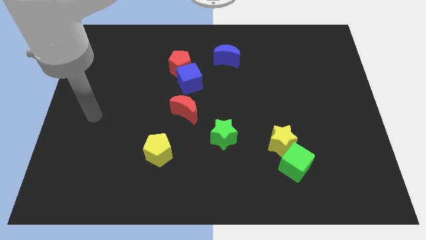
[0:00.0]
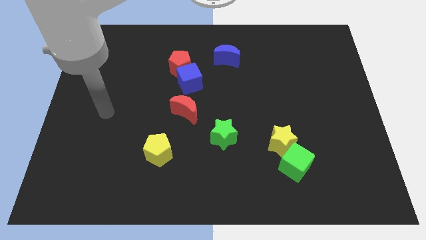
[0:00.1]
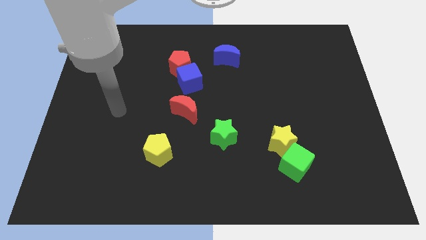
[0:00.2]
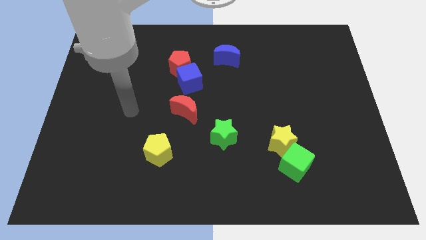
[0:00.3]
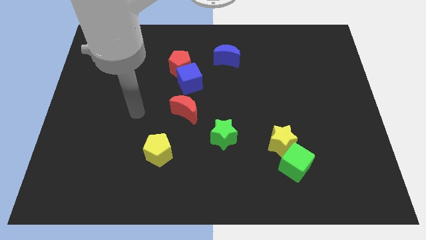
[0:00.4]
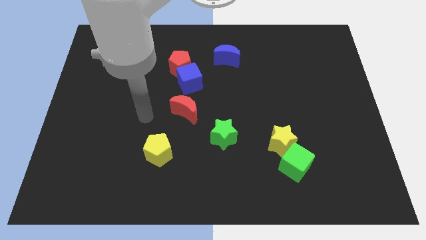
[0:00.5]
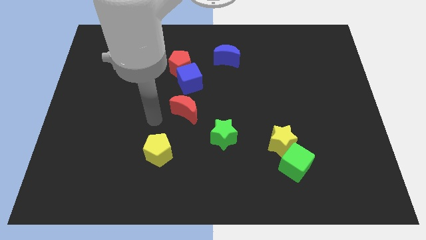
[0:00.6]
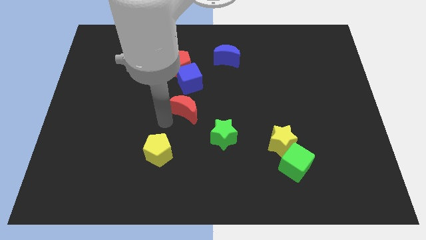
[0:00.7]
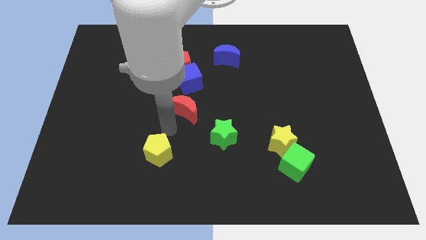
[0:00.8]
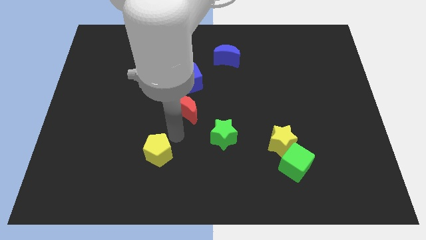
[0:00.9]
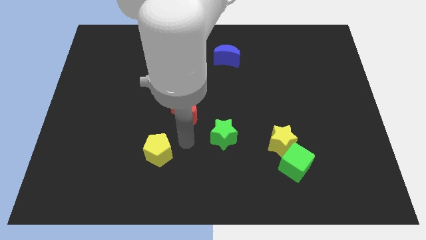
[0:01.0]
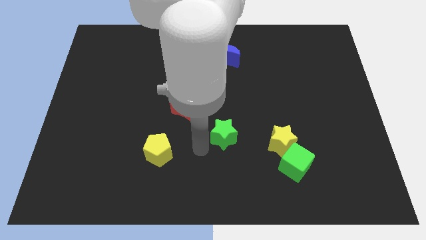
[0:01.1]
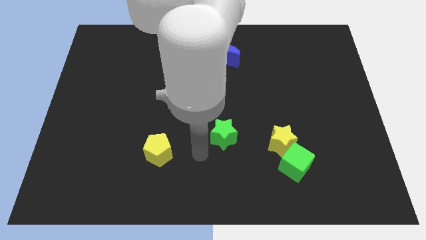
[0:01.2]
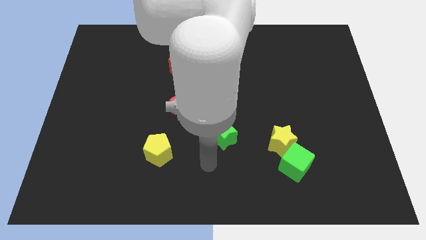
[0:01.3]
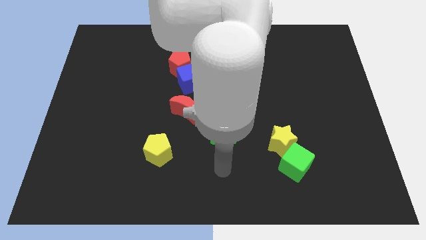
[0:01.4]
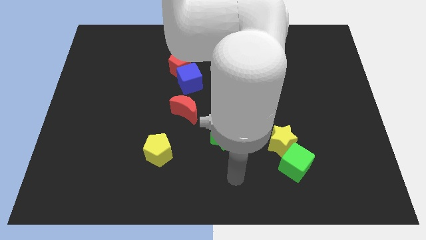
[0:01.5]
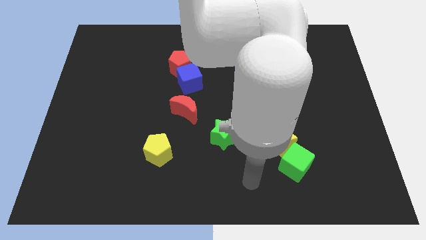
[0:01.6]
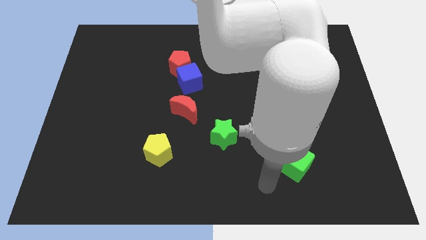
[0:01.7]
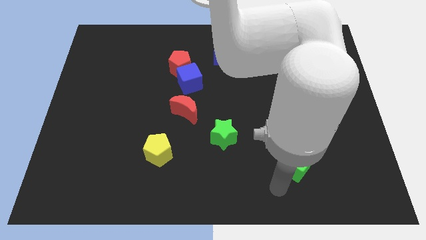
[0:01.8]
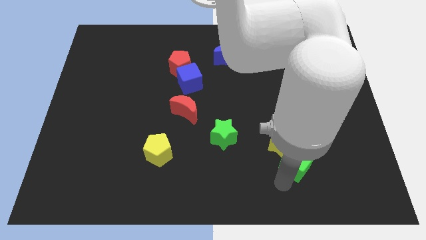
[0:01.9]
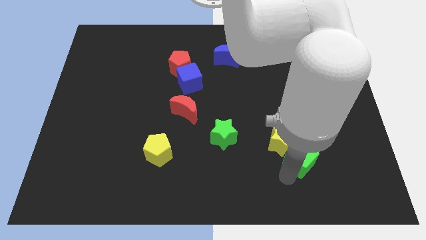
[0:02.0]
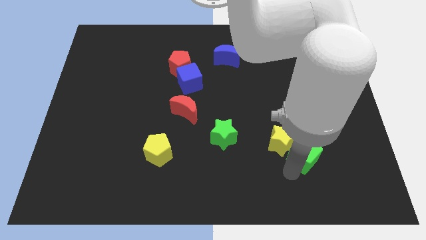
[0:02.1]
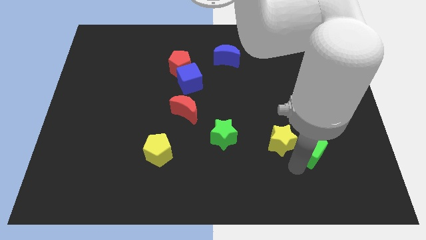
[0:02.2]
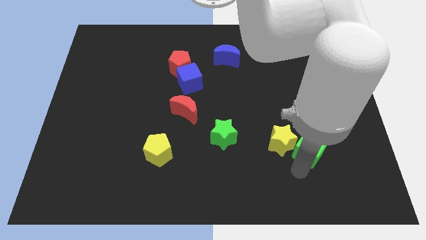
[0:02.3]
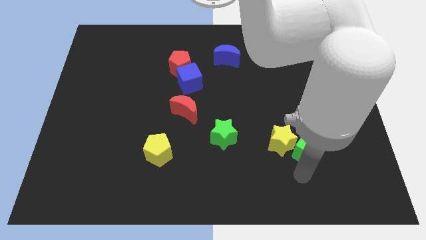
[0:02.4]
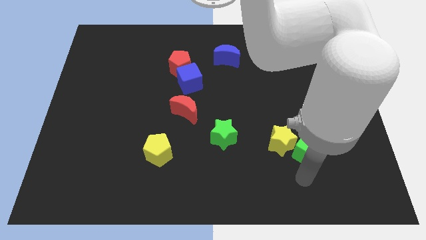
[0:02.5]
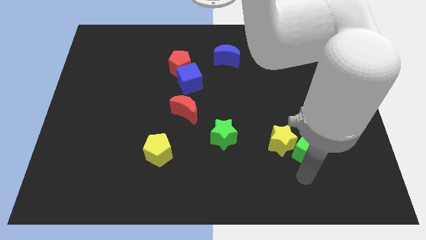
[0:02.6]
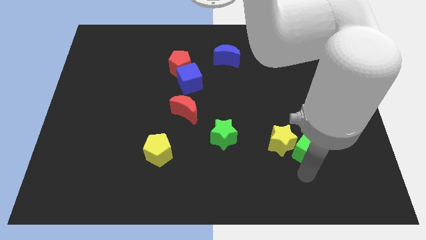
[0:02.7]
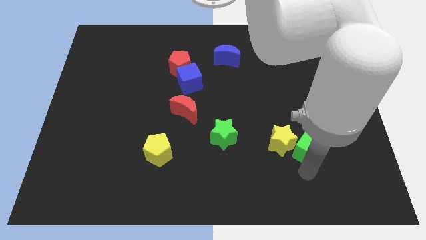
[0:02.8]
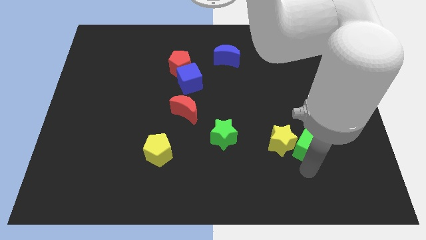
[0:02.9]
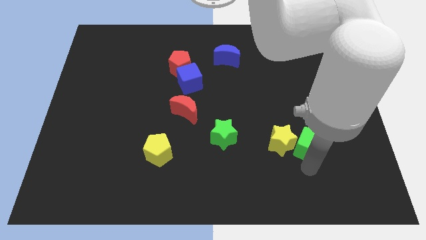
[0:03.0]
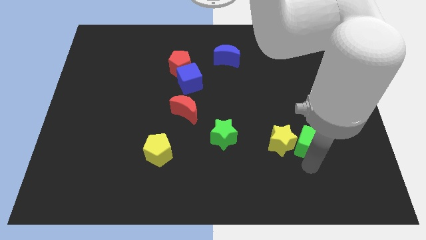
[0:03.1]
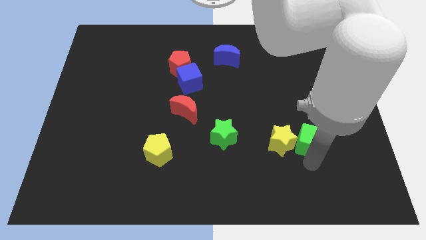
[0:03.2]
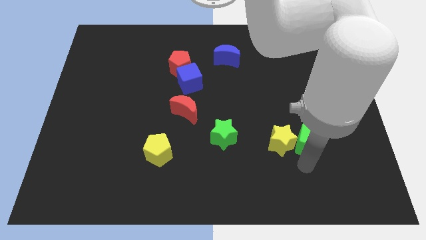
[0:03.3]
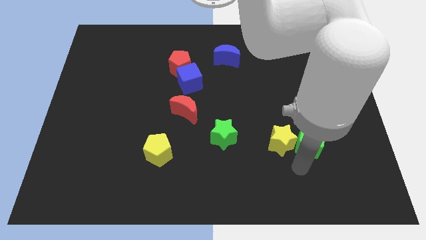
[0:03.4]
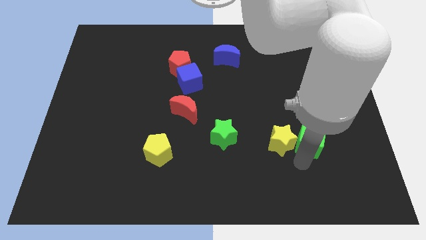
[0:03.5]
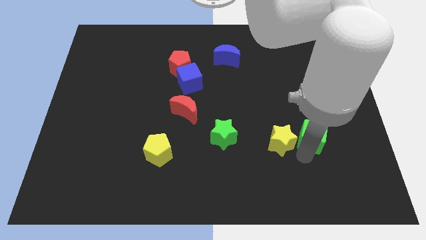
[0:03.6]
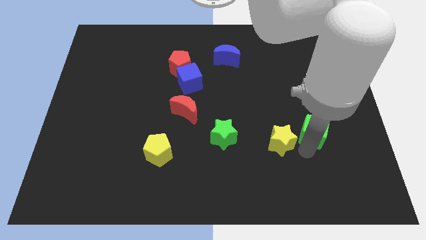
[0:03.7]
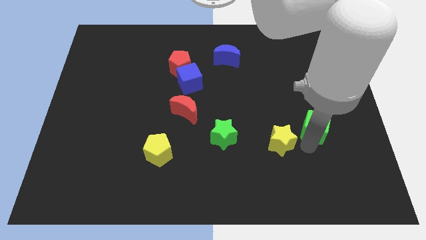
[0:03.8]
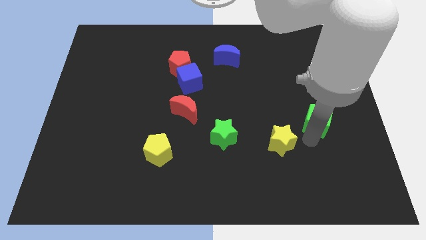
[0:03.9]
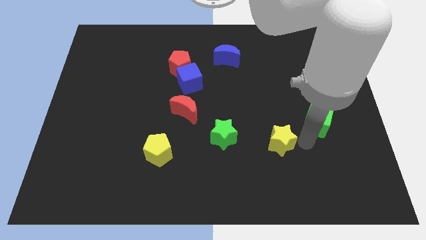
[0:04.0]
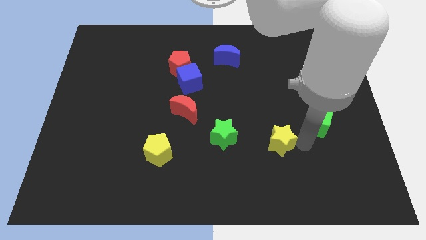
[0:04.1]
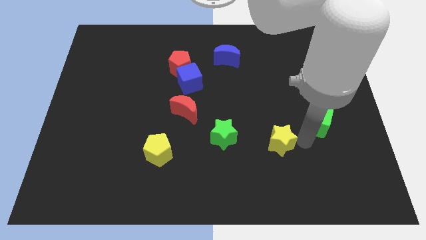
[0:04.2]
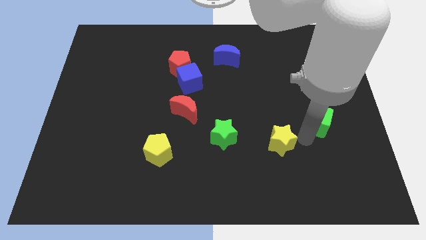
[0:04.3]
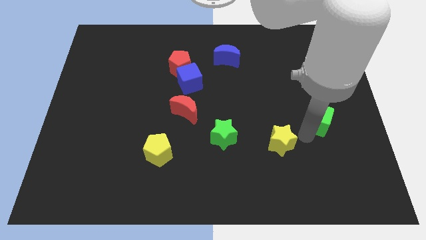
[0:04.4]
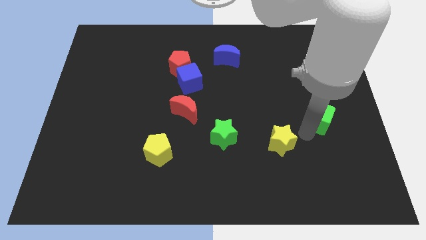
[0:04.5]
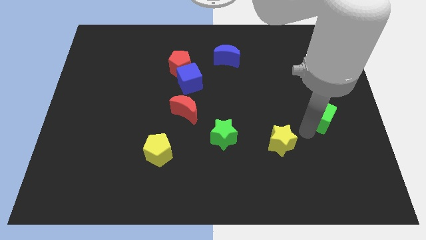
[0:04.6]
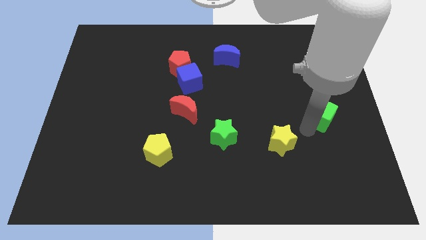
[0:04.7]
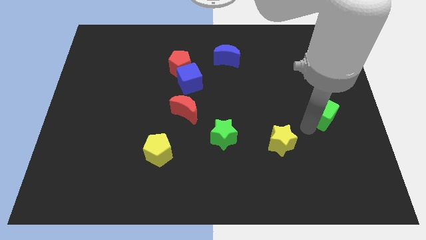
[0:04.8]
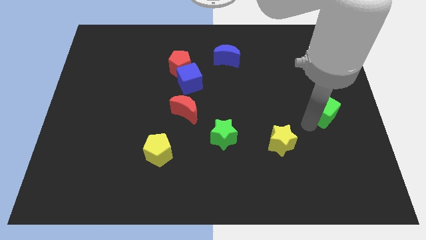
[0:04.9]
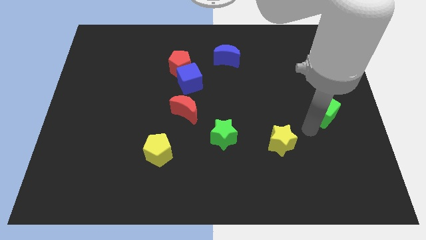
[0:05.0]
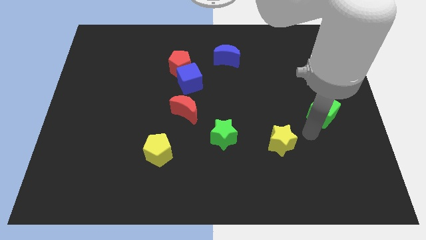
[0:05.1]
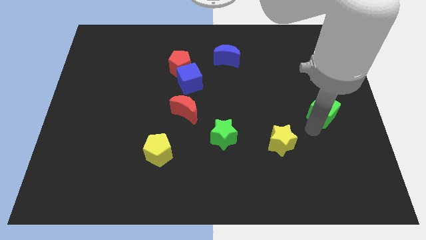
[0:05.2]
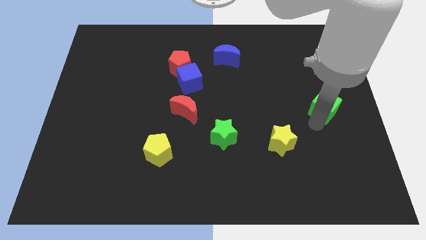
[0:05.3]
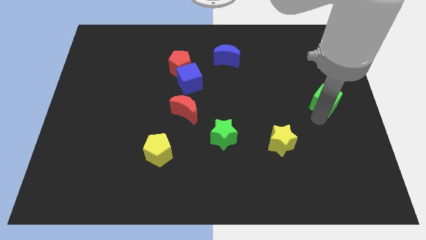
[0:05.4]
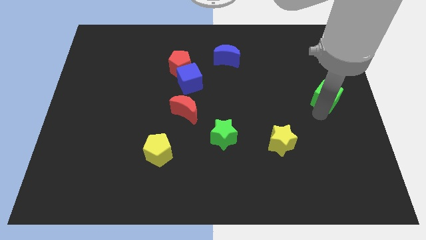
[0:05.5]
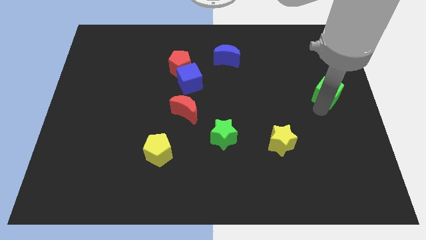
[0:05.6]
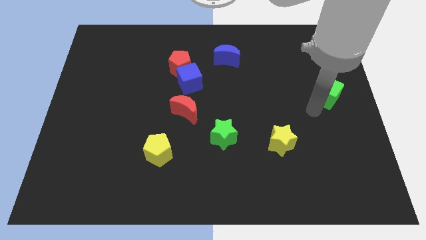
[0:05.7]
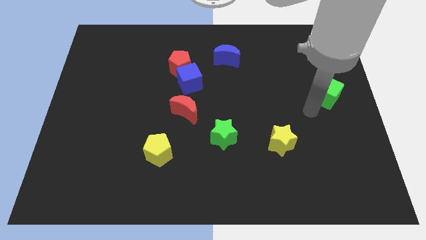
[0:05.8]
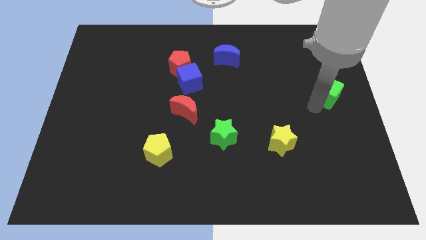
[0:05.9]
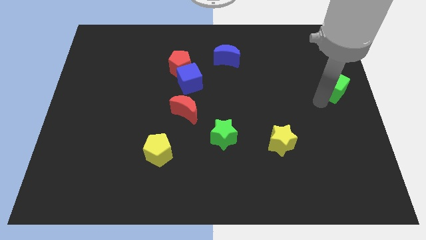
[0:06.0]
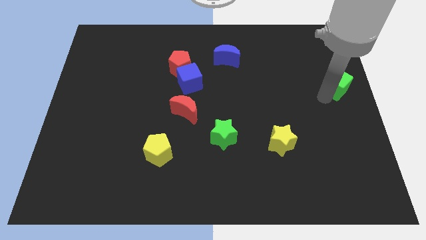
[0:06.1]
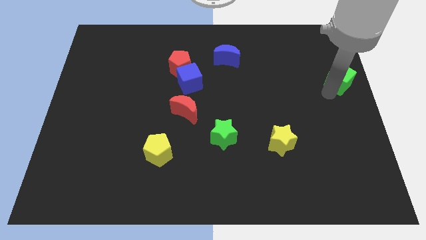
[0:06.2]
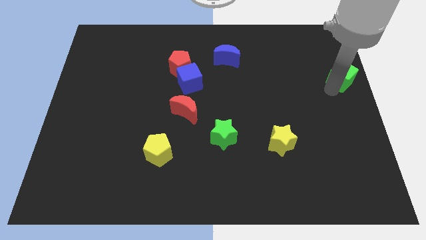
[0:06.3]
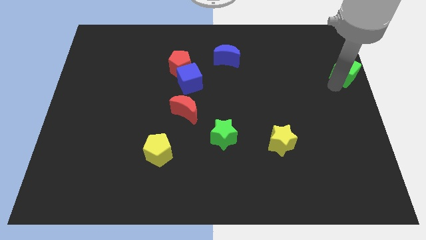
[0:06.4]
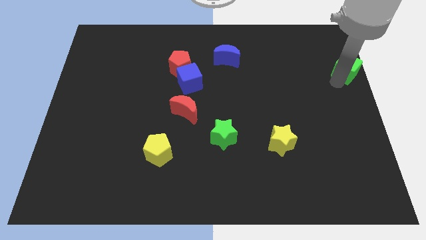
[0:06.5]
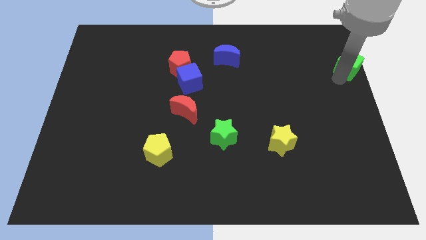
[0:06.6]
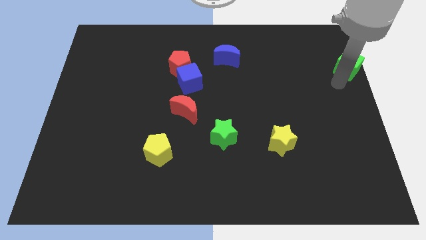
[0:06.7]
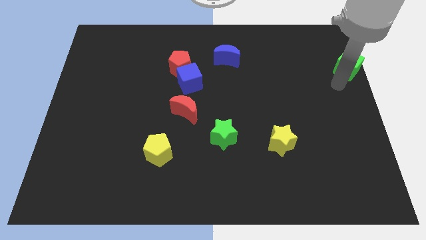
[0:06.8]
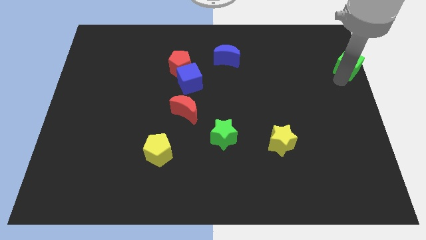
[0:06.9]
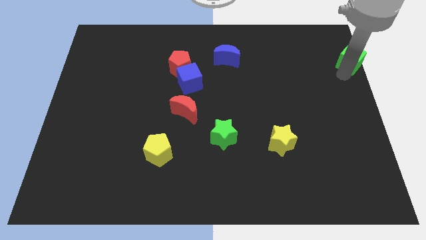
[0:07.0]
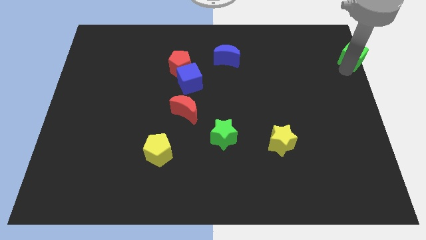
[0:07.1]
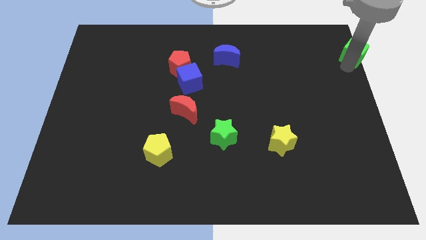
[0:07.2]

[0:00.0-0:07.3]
slide the green cube to the top right
